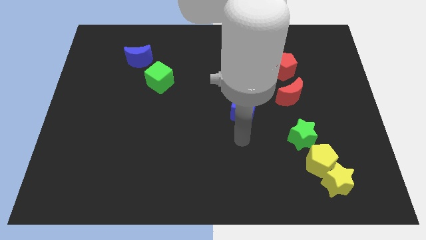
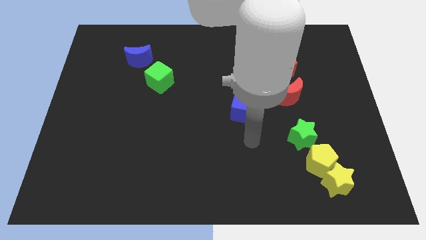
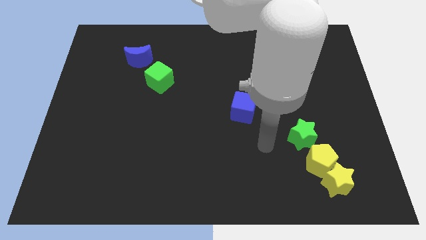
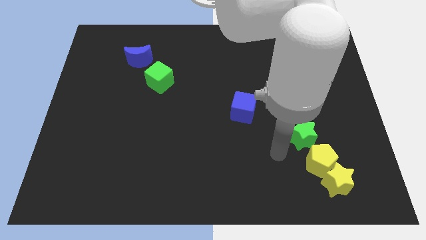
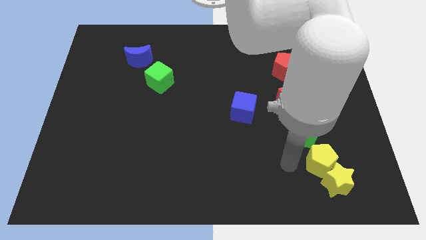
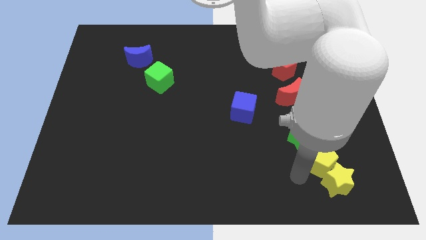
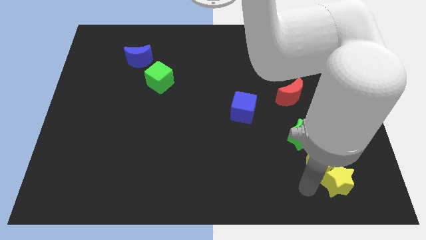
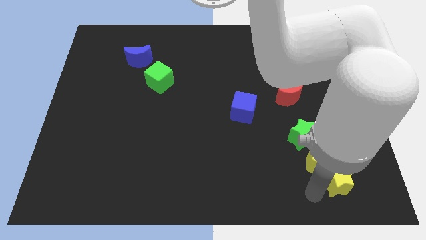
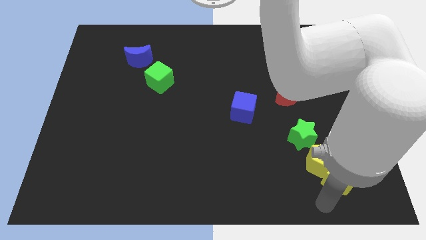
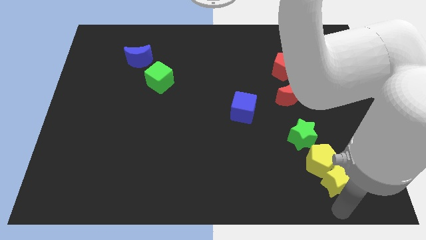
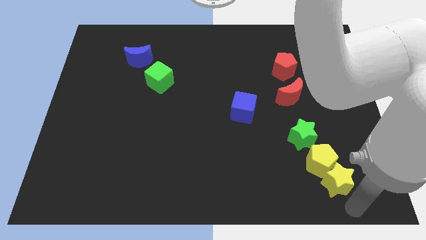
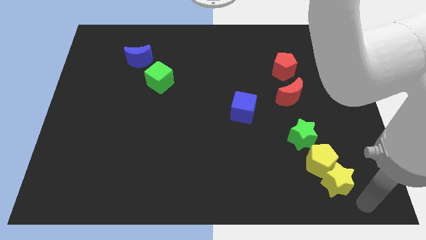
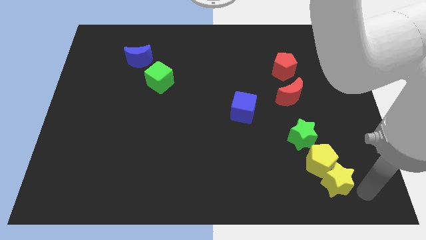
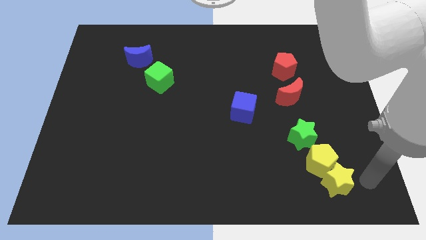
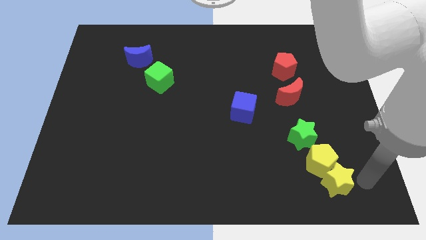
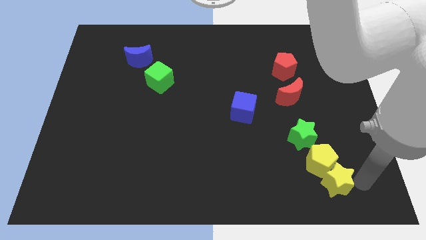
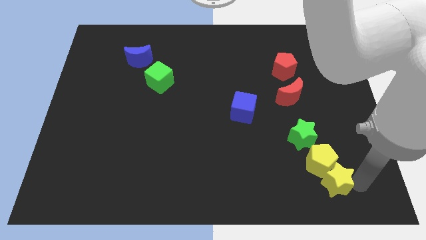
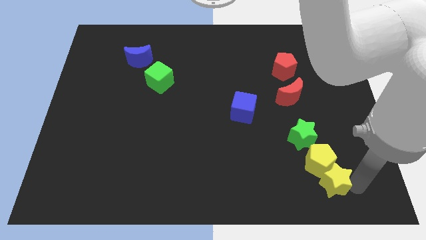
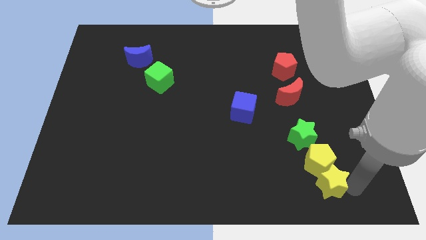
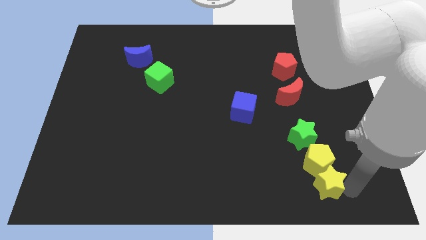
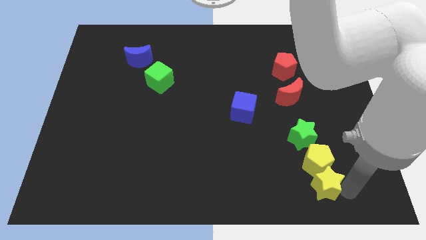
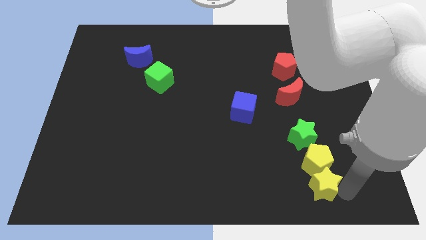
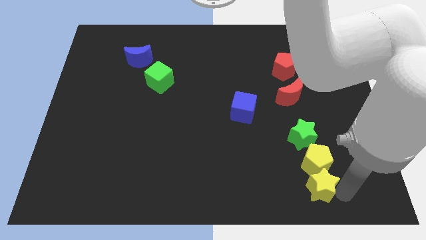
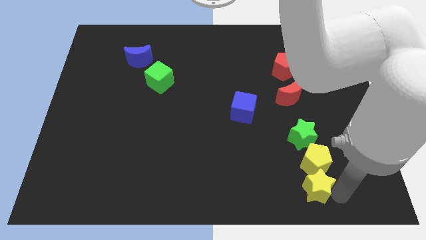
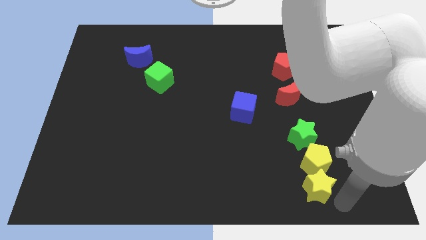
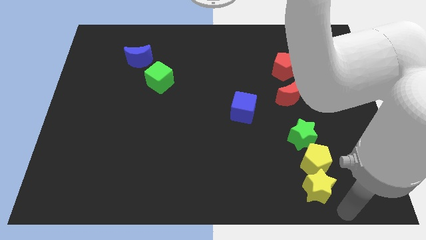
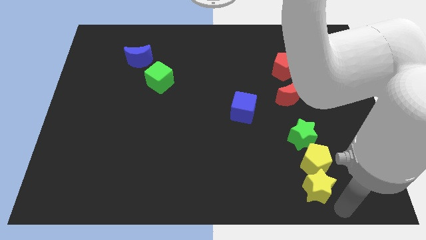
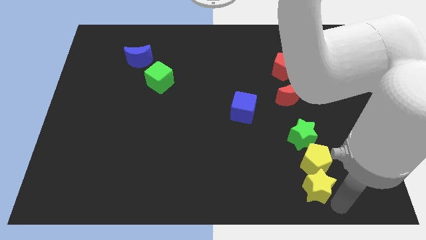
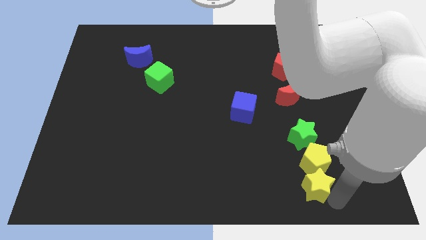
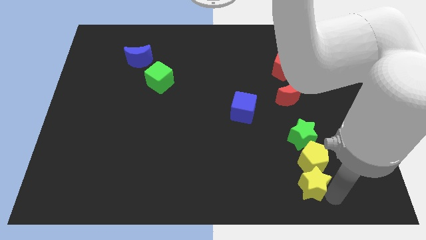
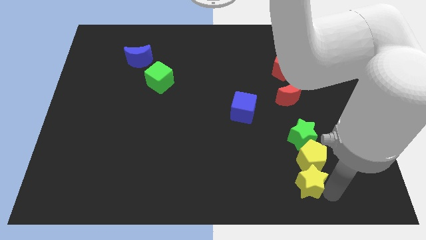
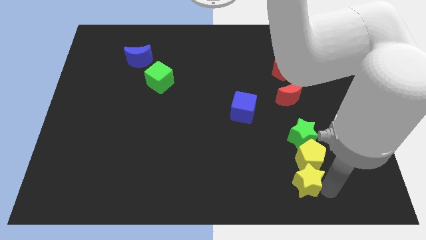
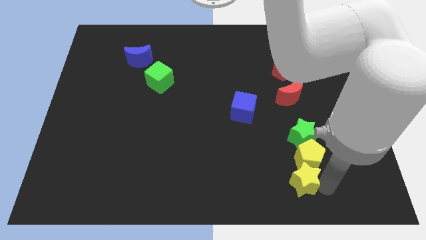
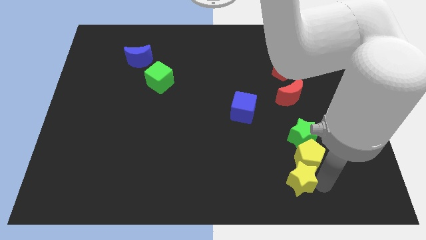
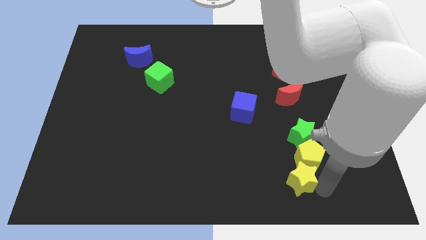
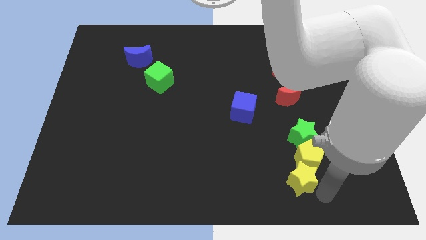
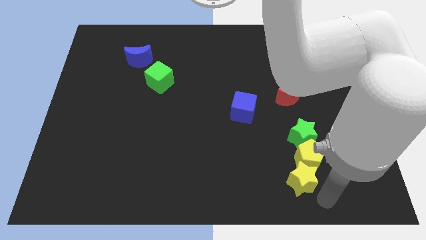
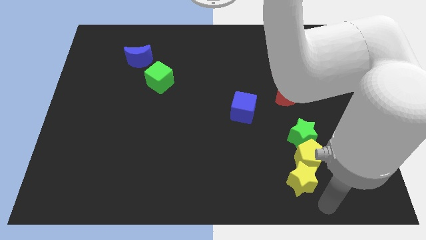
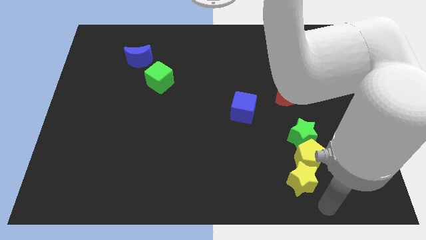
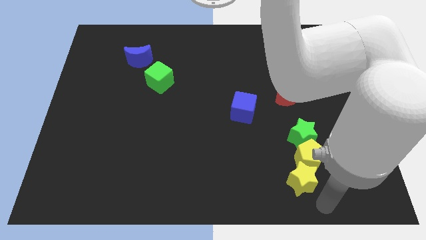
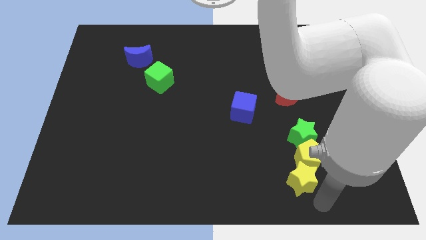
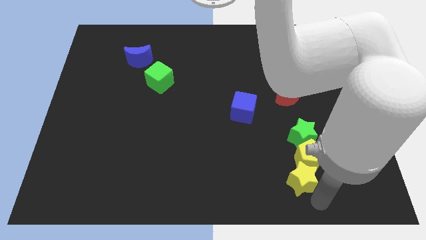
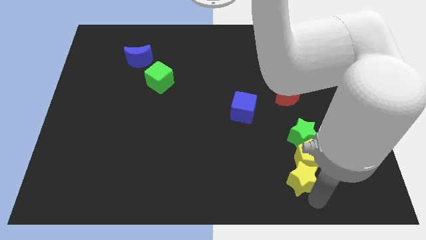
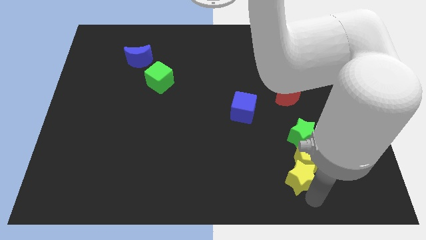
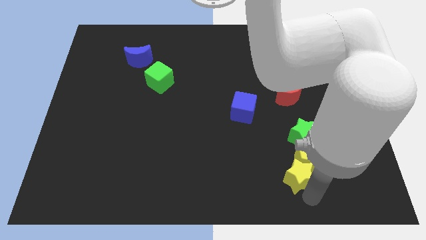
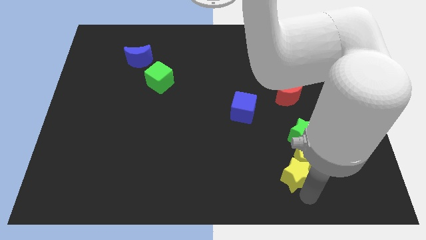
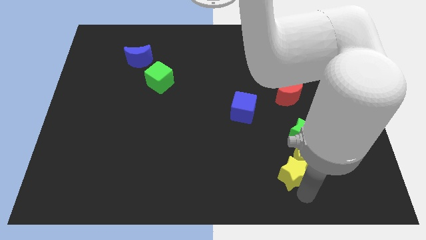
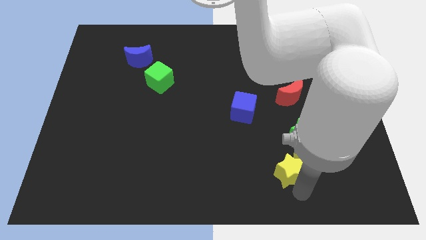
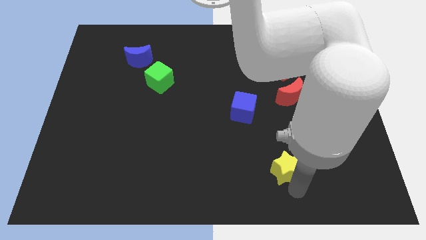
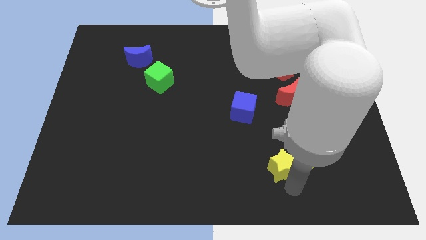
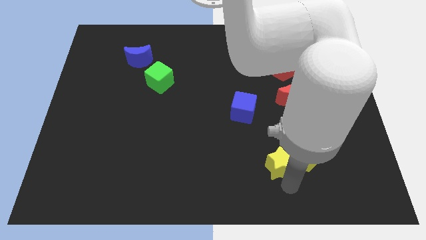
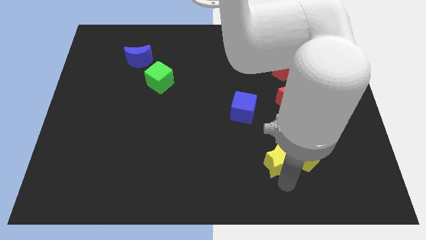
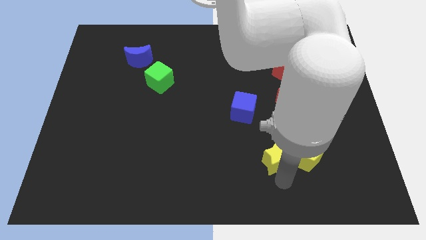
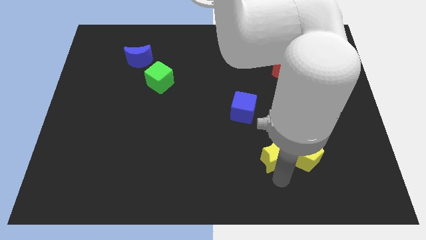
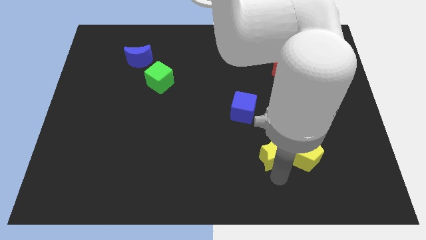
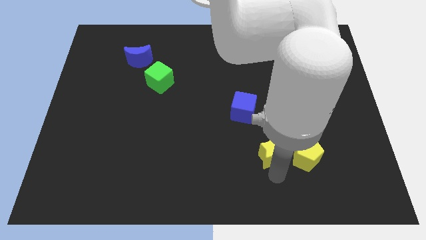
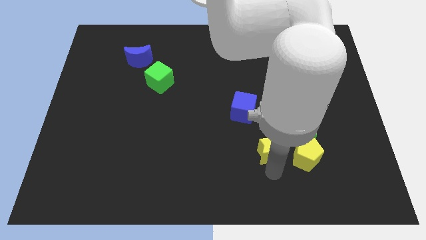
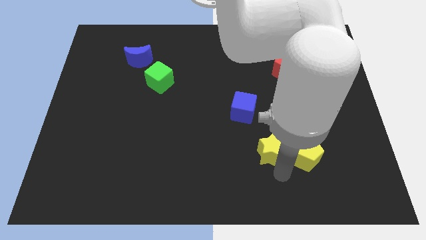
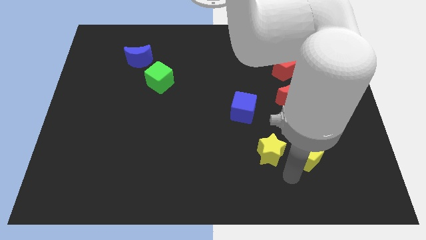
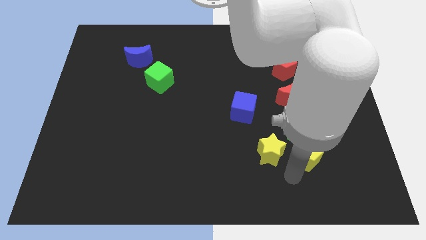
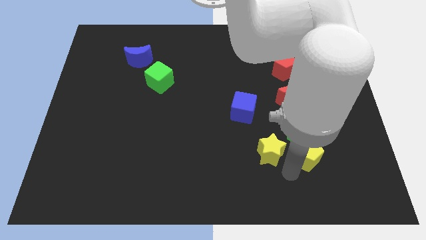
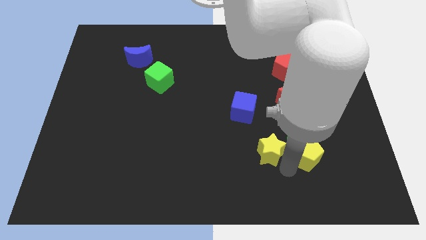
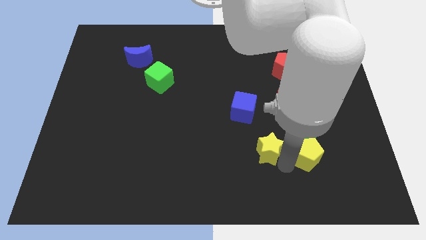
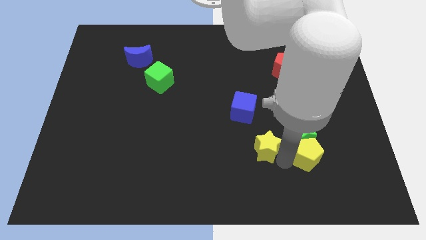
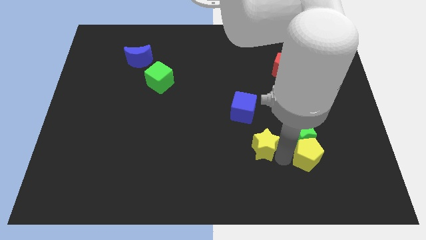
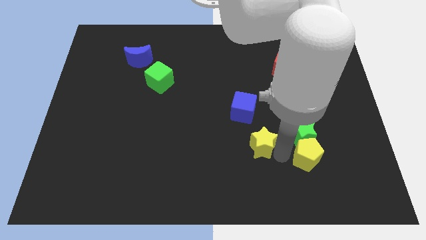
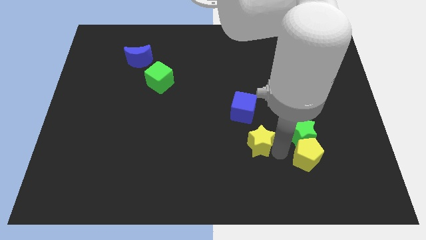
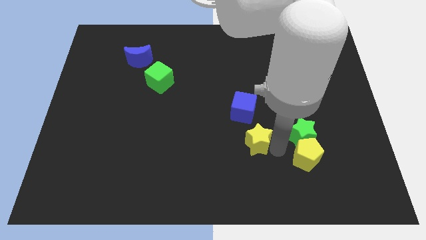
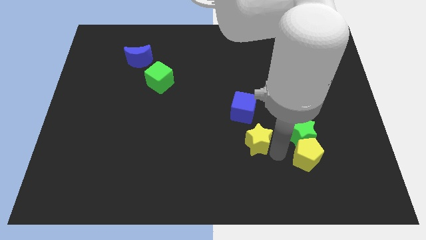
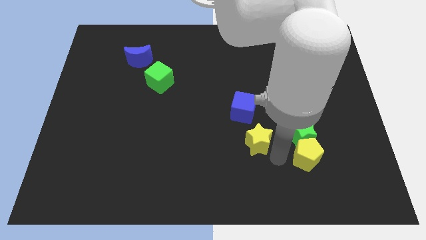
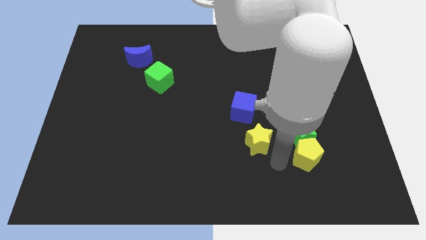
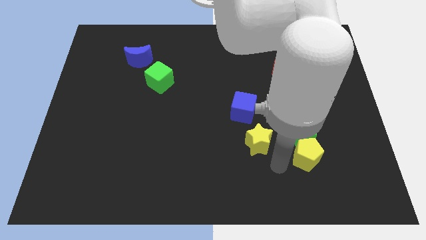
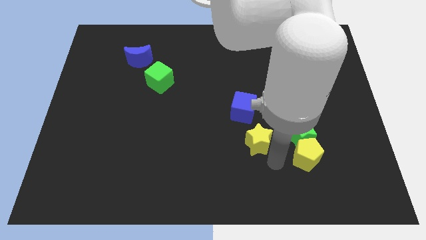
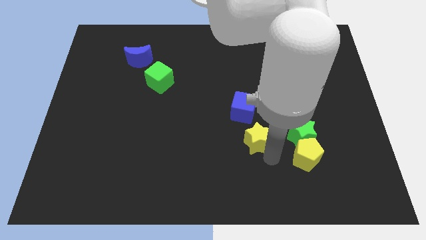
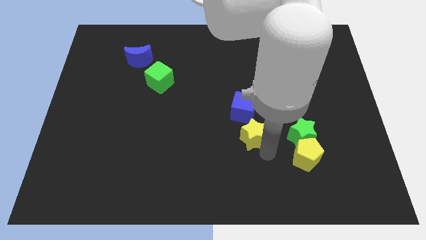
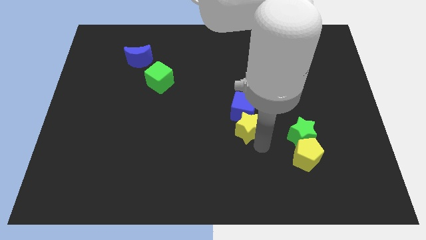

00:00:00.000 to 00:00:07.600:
push the yellow star up and to the left

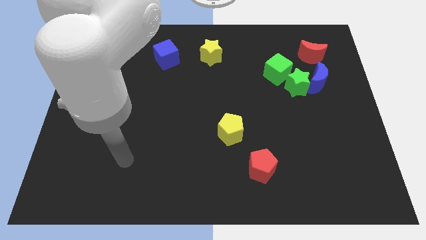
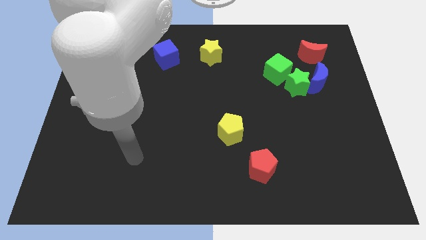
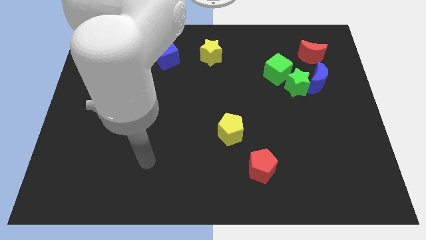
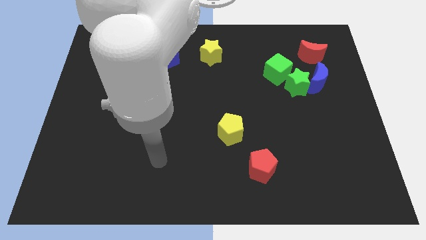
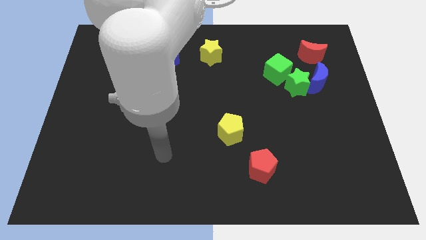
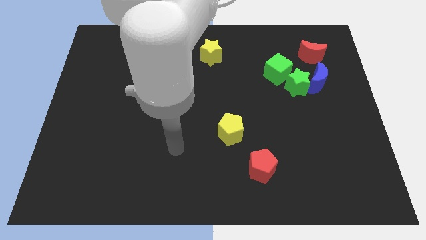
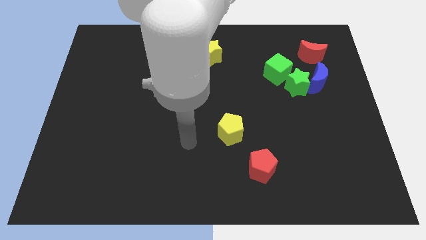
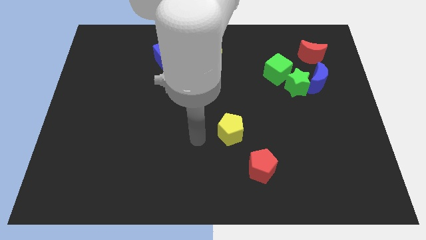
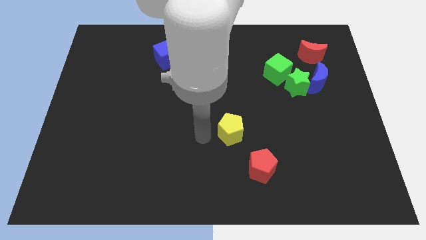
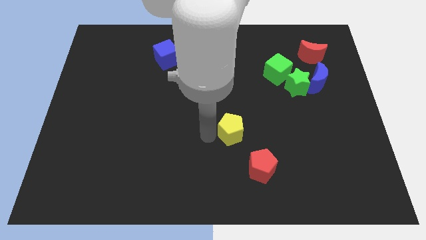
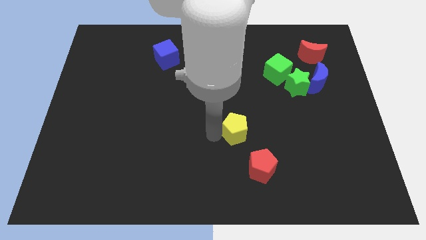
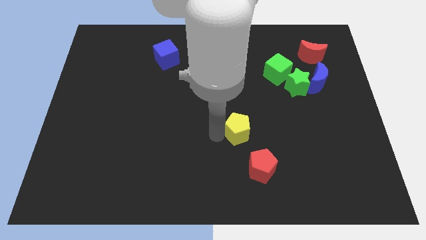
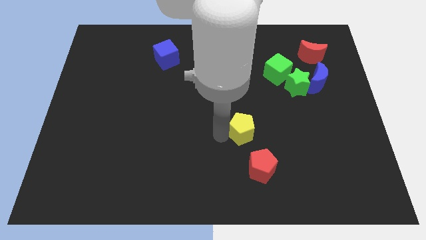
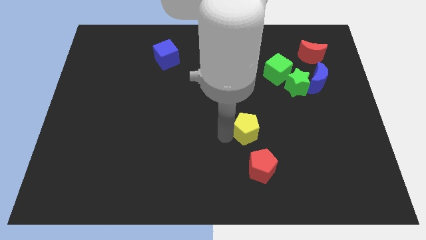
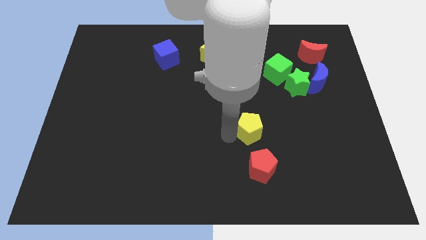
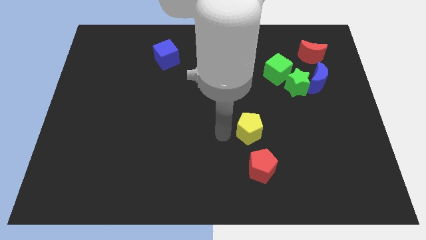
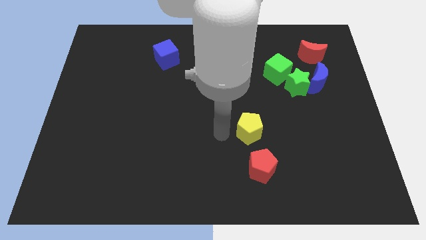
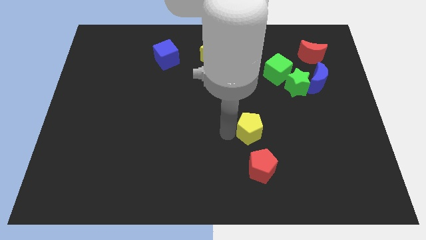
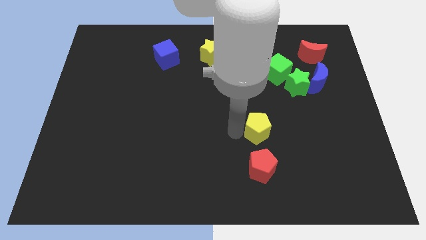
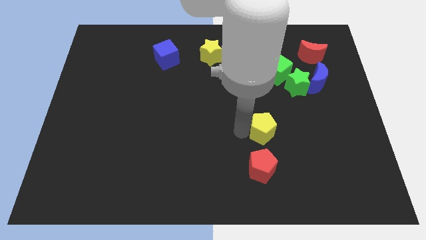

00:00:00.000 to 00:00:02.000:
slightly push the yellow pentagon to the right
